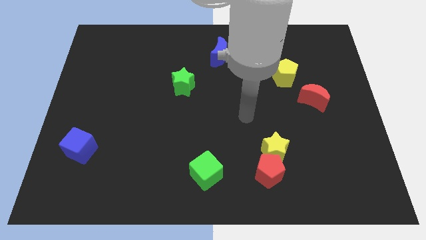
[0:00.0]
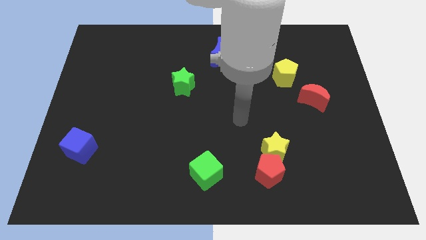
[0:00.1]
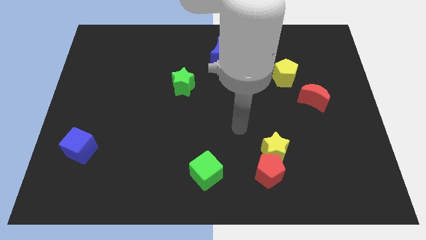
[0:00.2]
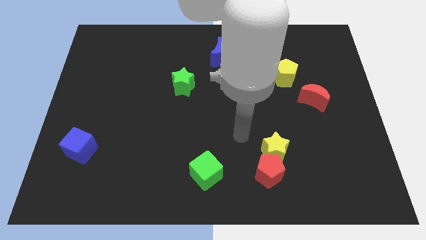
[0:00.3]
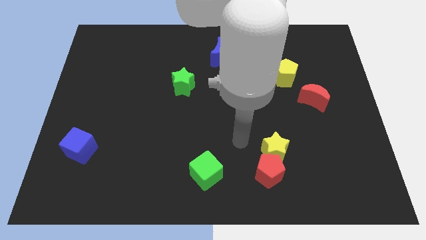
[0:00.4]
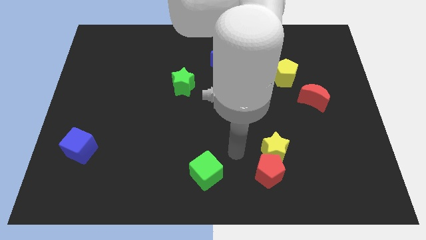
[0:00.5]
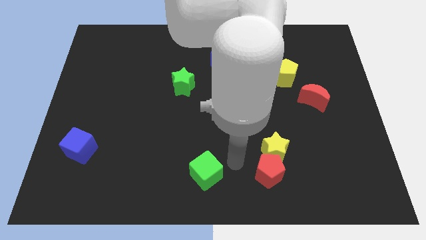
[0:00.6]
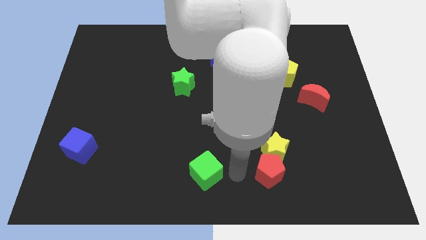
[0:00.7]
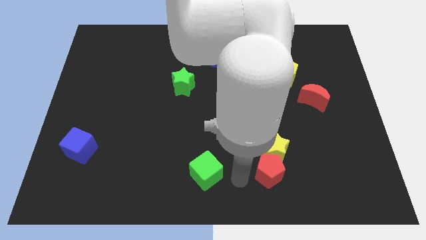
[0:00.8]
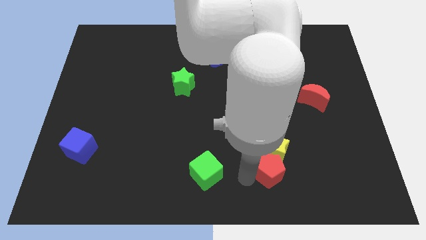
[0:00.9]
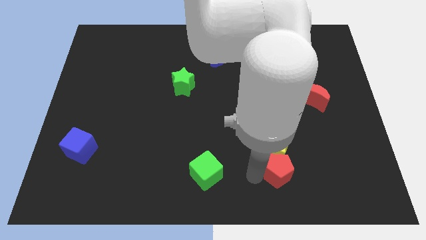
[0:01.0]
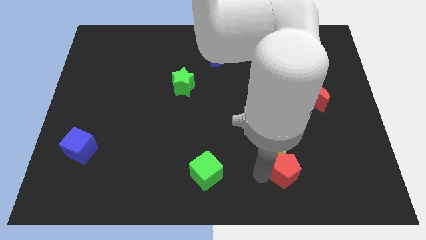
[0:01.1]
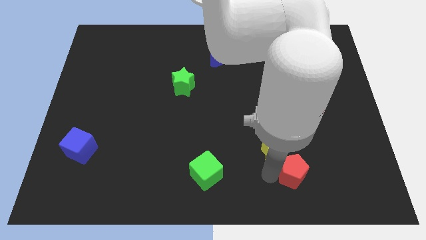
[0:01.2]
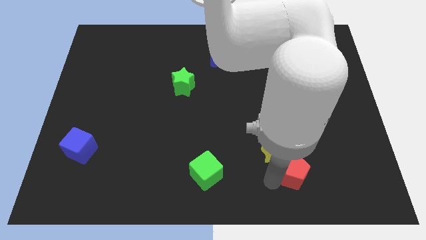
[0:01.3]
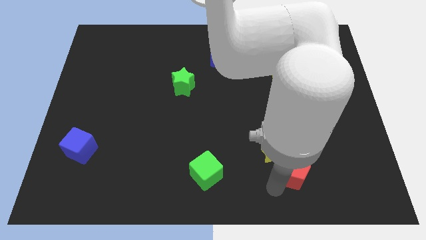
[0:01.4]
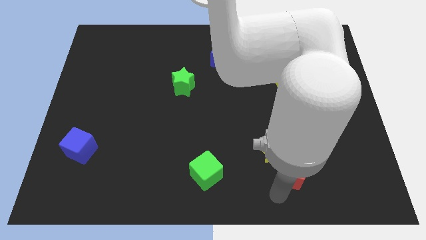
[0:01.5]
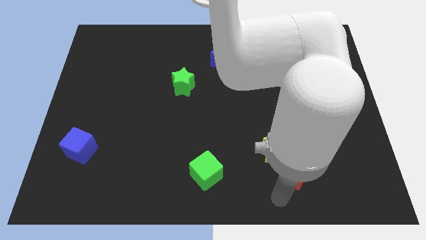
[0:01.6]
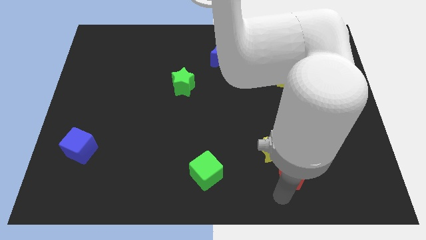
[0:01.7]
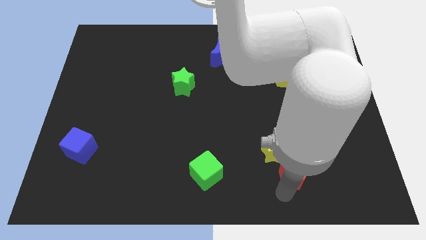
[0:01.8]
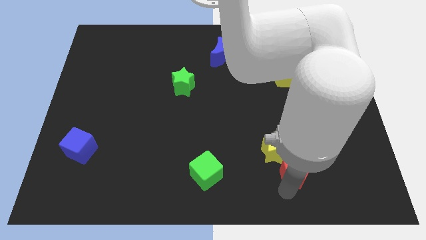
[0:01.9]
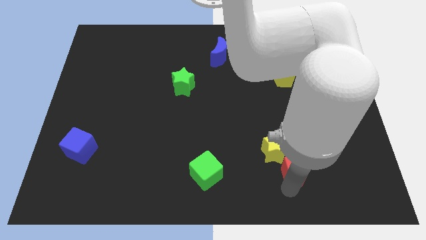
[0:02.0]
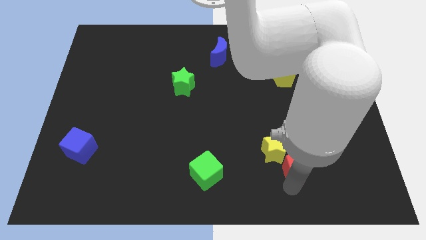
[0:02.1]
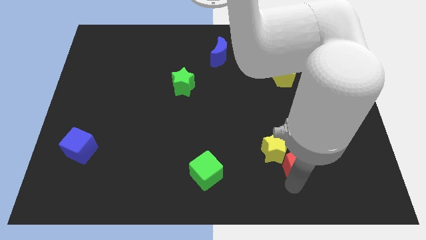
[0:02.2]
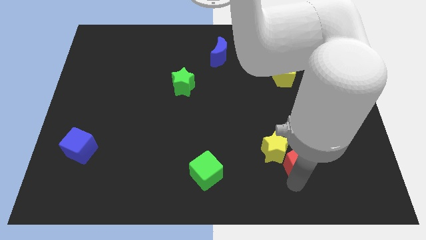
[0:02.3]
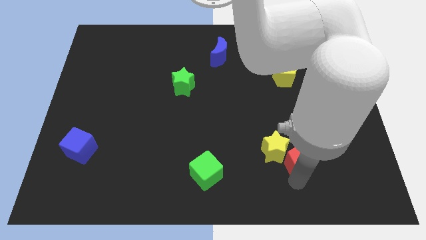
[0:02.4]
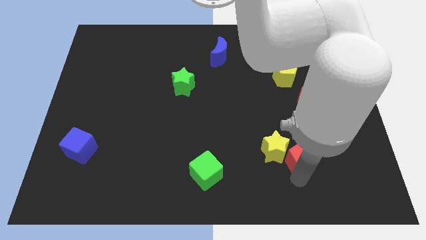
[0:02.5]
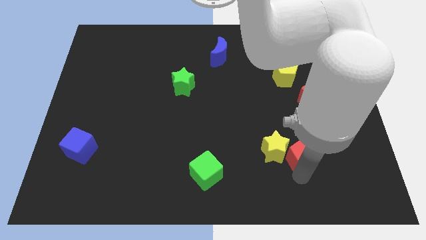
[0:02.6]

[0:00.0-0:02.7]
slightly move the red pentagon diagonally upwards and to the right

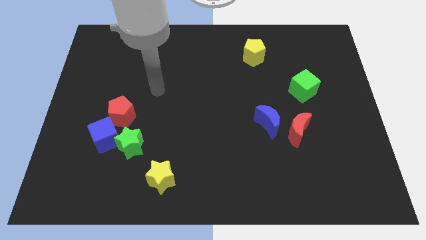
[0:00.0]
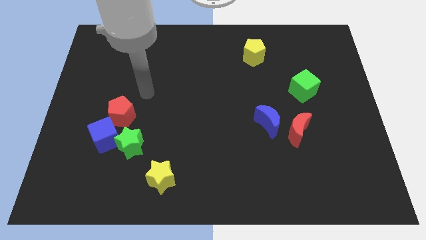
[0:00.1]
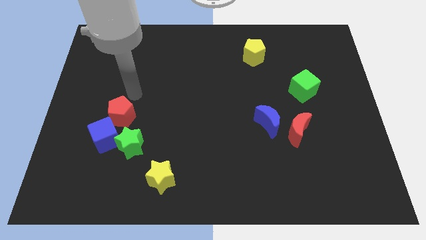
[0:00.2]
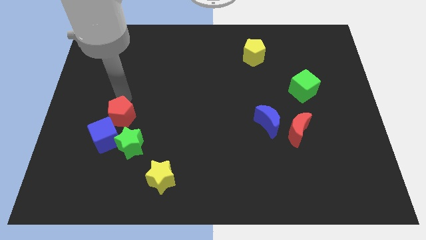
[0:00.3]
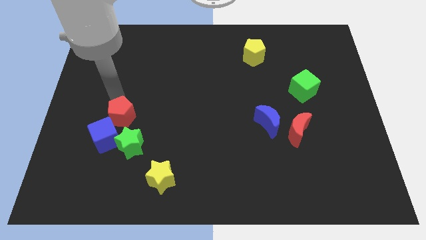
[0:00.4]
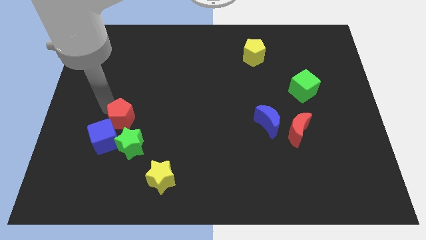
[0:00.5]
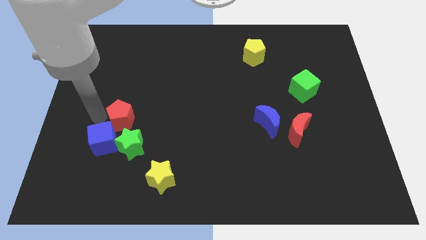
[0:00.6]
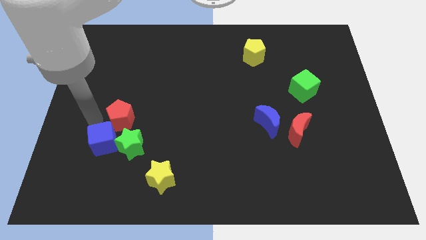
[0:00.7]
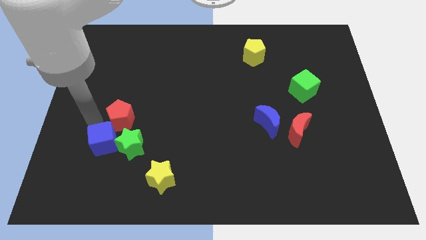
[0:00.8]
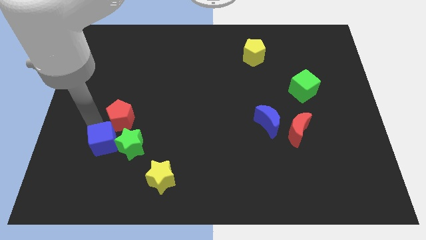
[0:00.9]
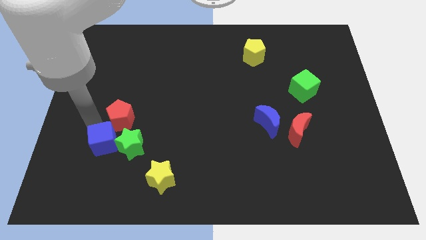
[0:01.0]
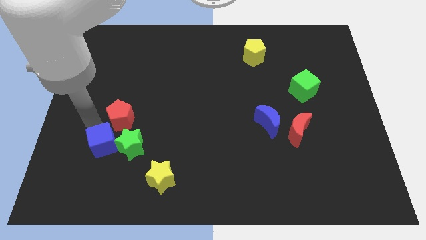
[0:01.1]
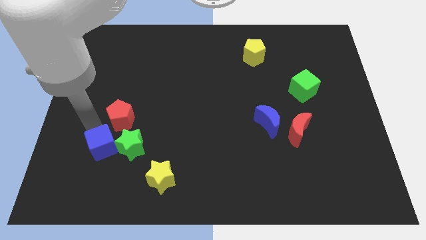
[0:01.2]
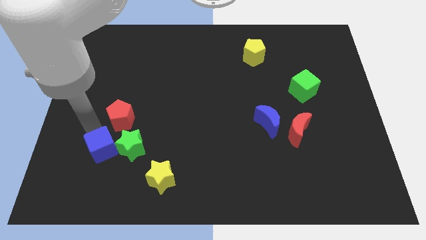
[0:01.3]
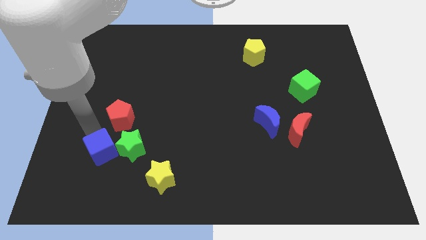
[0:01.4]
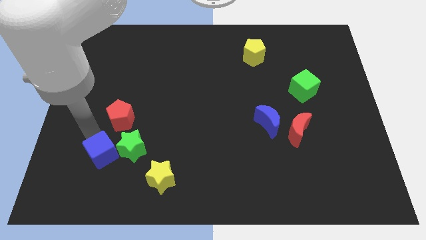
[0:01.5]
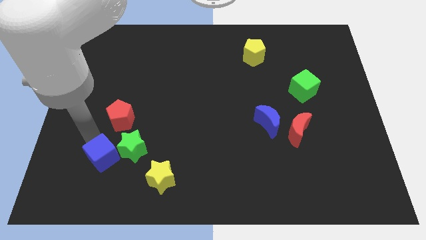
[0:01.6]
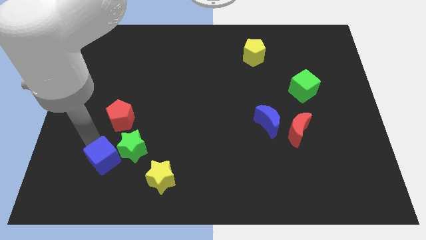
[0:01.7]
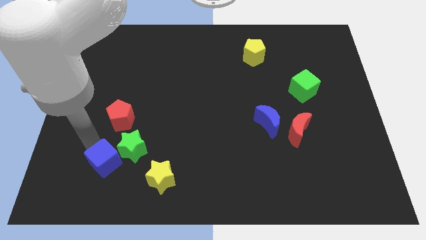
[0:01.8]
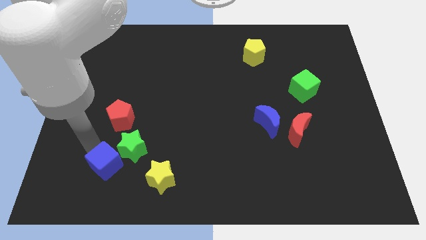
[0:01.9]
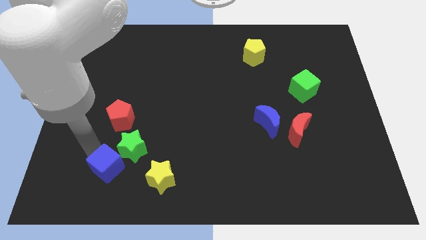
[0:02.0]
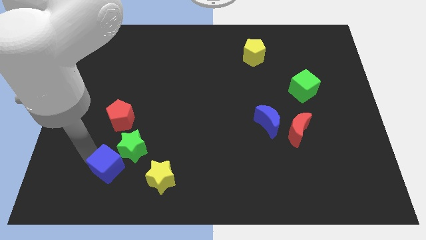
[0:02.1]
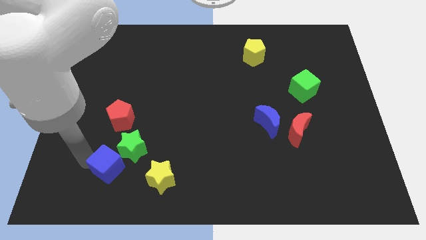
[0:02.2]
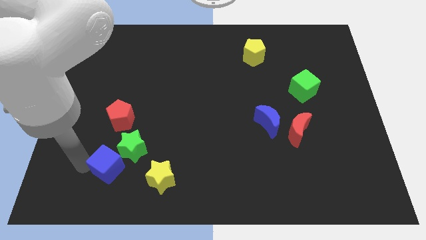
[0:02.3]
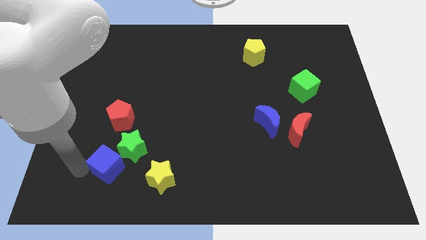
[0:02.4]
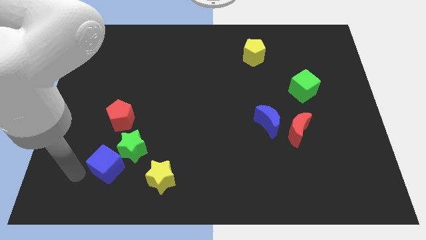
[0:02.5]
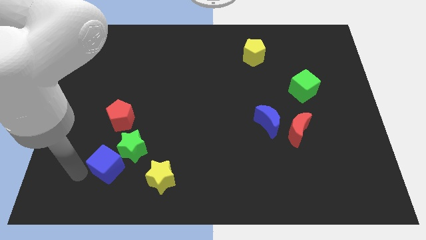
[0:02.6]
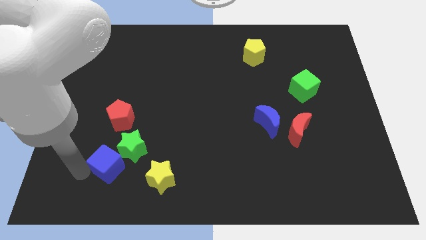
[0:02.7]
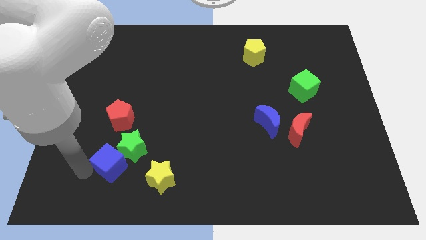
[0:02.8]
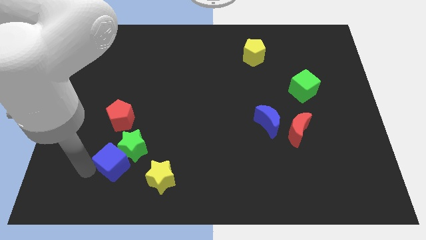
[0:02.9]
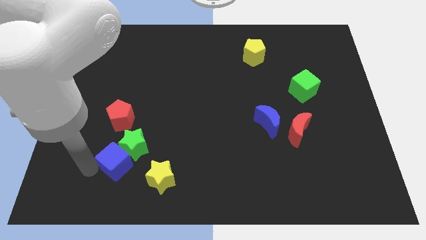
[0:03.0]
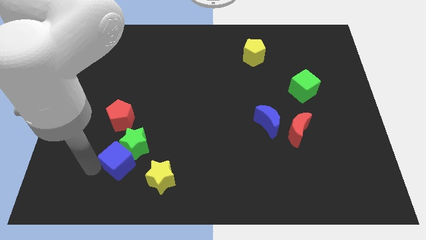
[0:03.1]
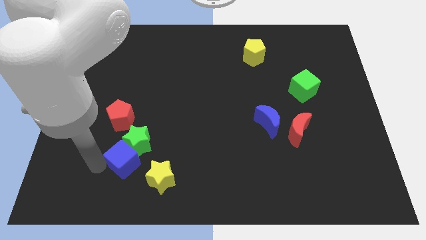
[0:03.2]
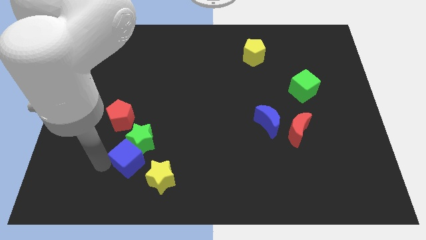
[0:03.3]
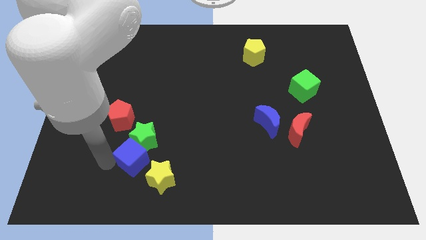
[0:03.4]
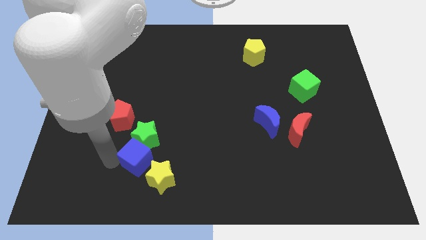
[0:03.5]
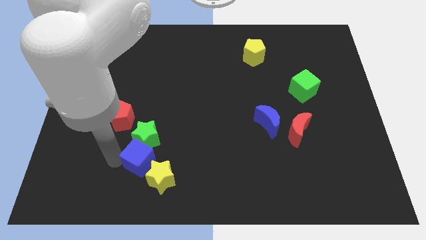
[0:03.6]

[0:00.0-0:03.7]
push the blue cube to the right a little bit

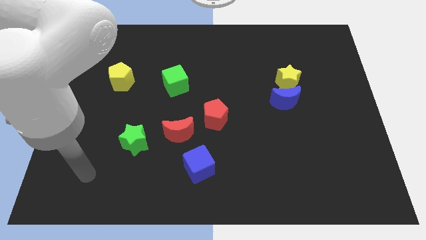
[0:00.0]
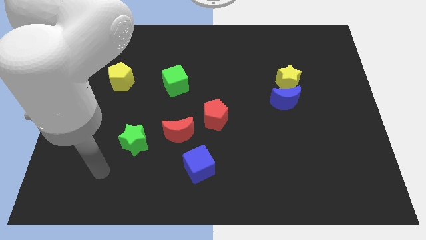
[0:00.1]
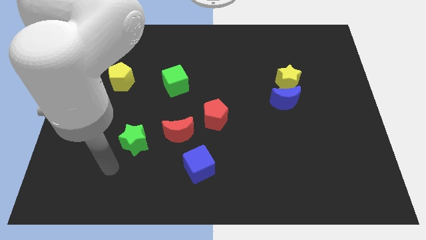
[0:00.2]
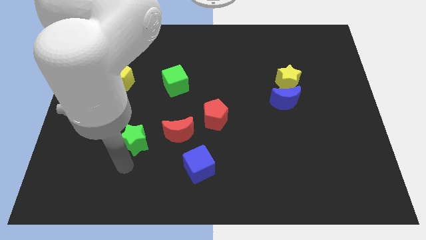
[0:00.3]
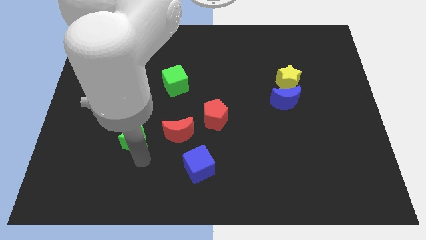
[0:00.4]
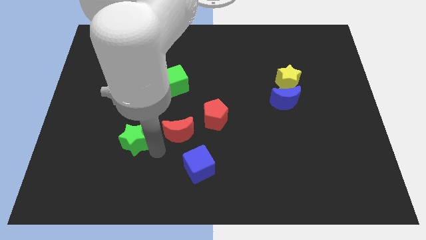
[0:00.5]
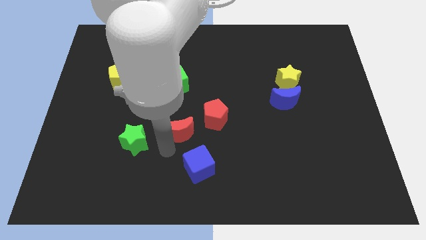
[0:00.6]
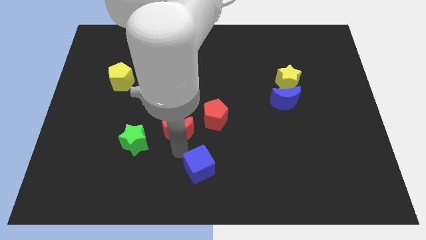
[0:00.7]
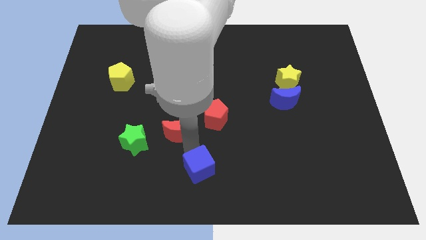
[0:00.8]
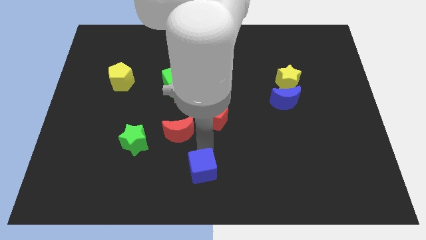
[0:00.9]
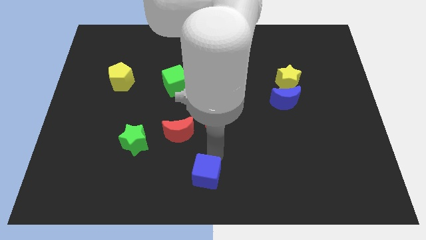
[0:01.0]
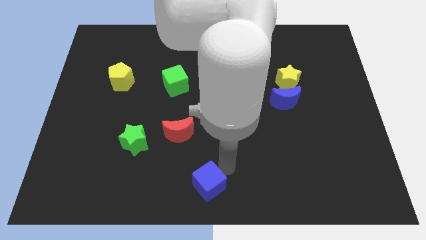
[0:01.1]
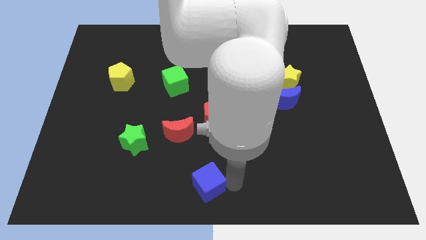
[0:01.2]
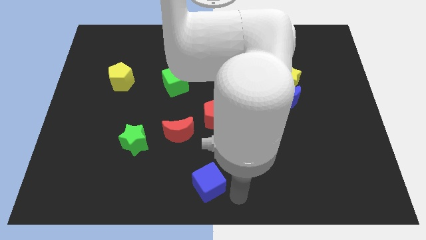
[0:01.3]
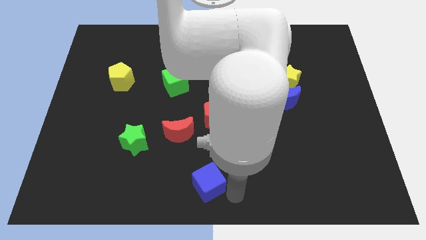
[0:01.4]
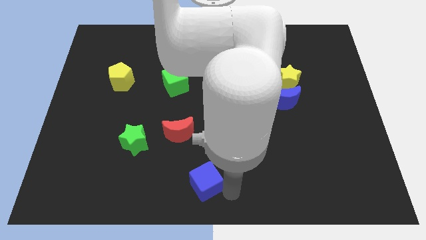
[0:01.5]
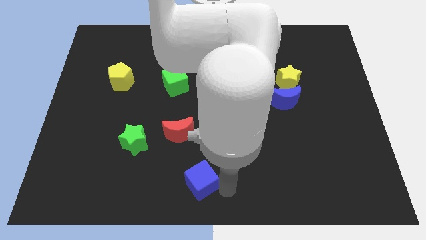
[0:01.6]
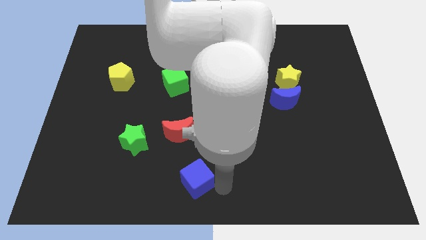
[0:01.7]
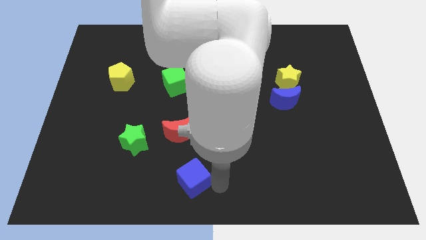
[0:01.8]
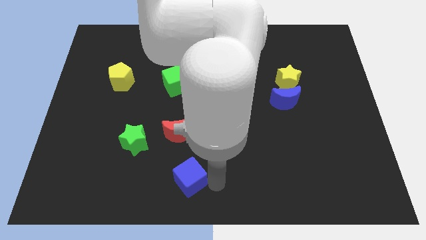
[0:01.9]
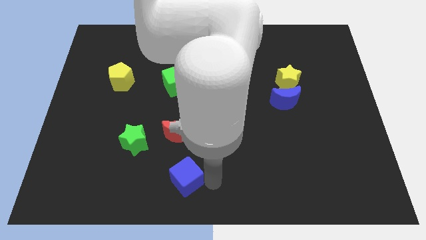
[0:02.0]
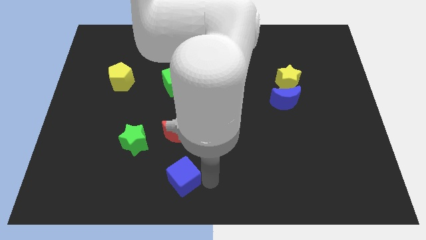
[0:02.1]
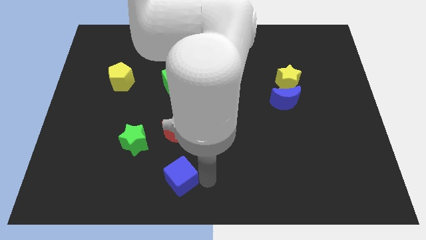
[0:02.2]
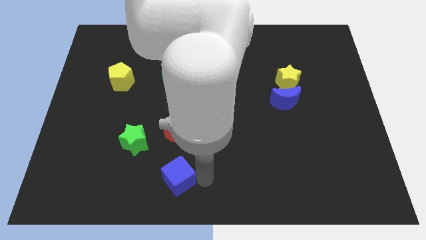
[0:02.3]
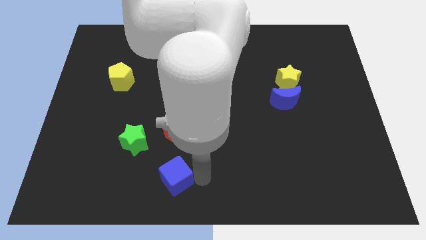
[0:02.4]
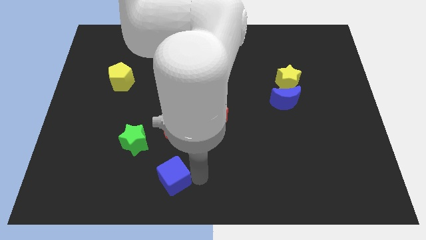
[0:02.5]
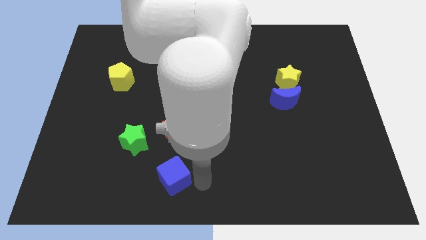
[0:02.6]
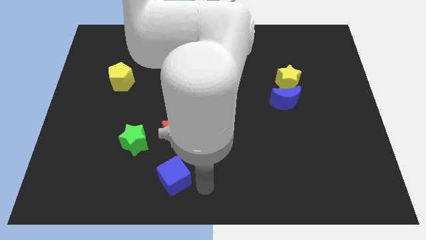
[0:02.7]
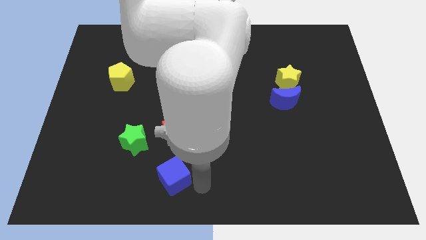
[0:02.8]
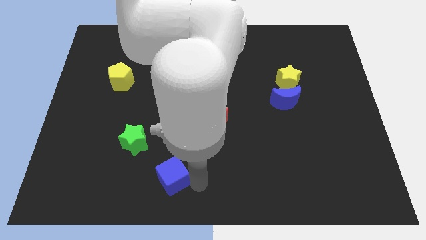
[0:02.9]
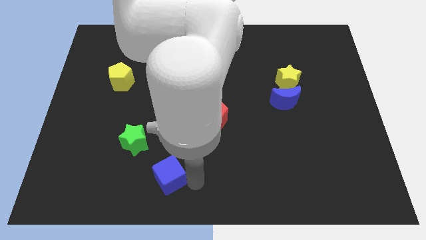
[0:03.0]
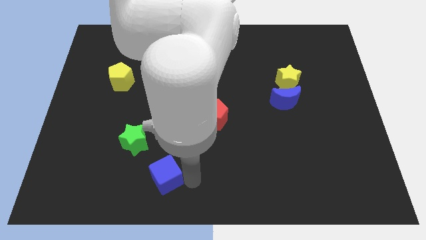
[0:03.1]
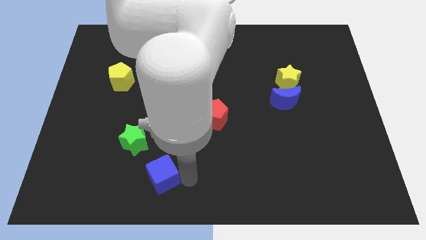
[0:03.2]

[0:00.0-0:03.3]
move the blue cube to the left a little
